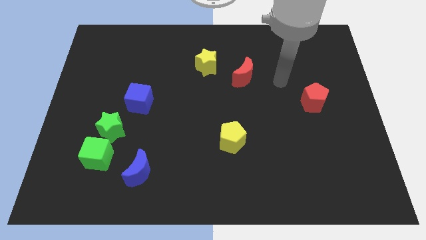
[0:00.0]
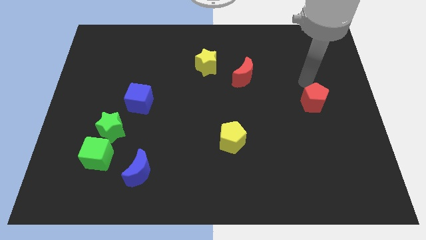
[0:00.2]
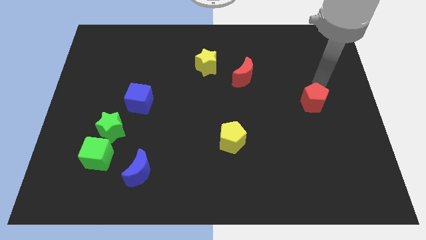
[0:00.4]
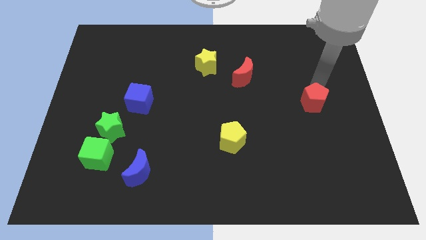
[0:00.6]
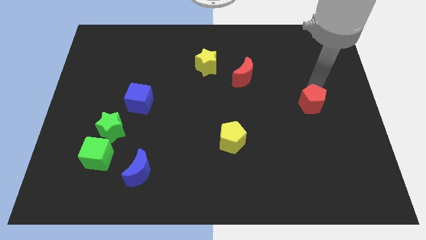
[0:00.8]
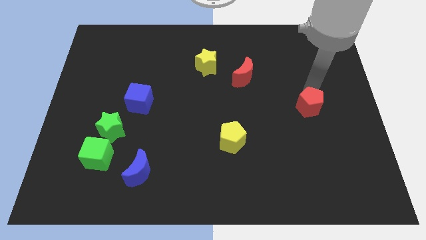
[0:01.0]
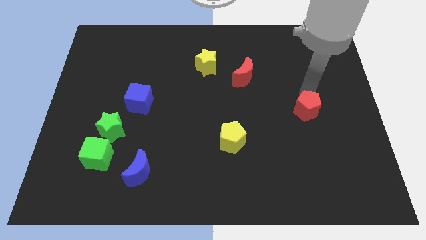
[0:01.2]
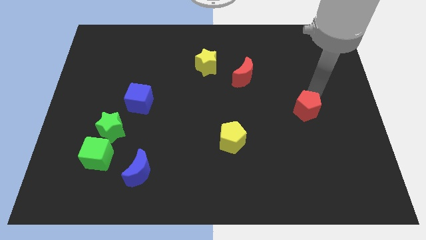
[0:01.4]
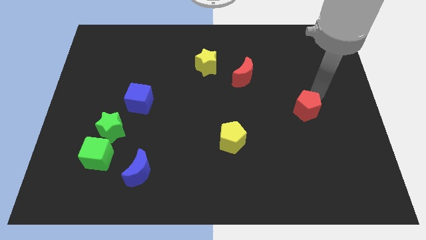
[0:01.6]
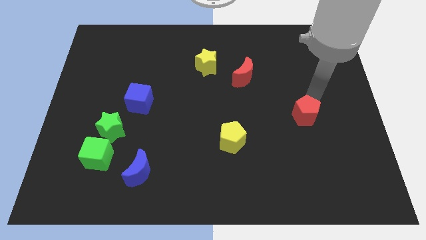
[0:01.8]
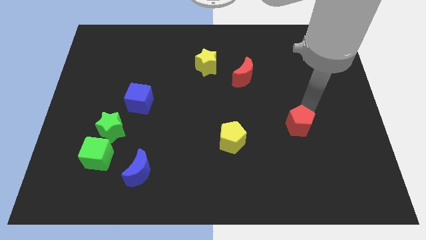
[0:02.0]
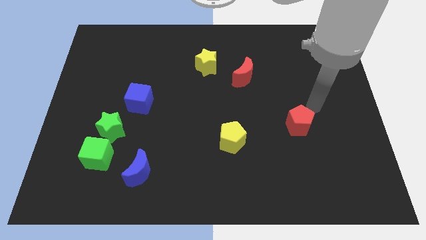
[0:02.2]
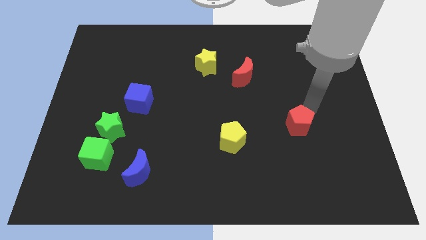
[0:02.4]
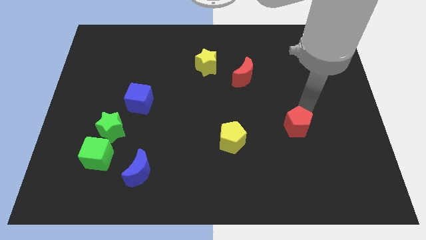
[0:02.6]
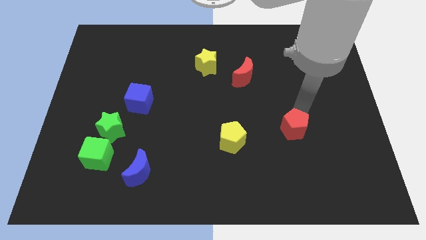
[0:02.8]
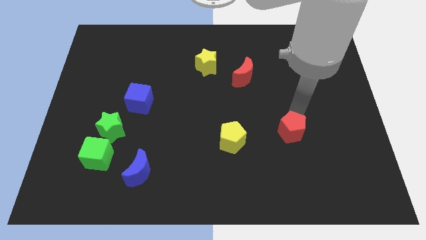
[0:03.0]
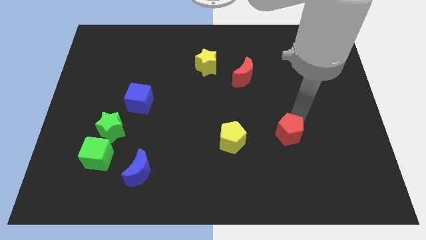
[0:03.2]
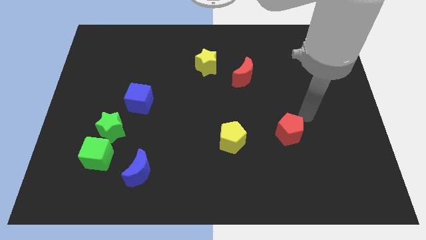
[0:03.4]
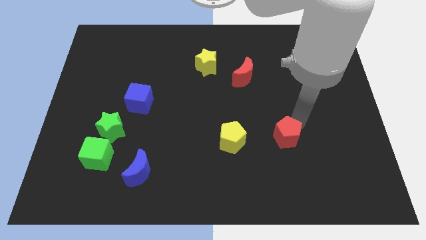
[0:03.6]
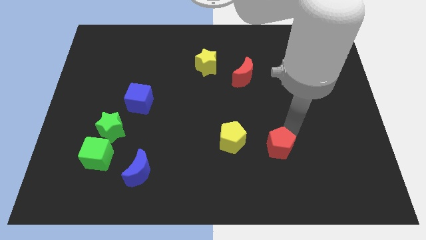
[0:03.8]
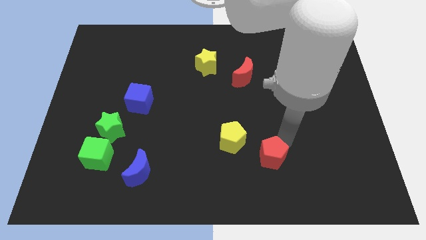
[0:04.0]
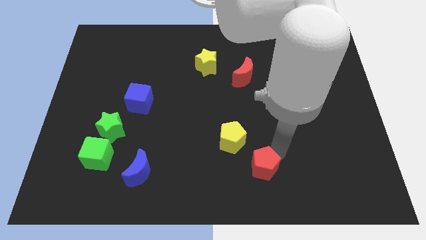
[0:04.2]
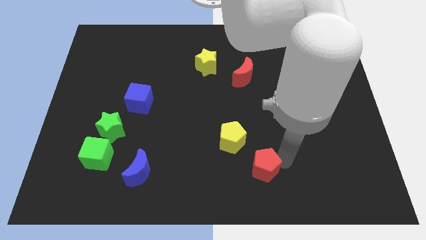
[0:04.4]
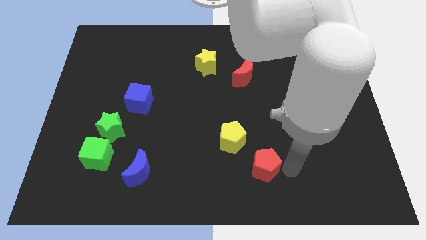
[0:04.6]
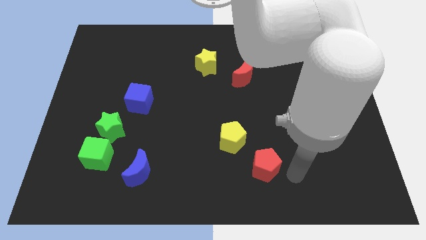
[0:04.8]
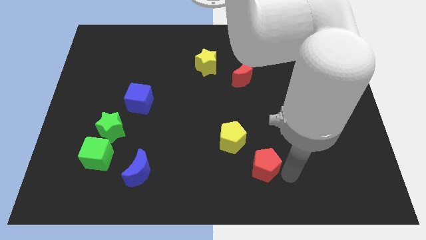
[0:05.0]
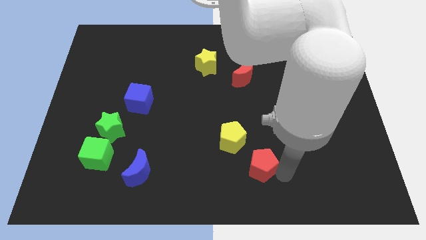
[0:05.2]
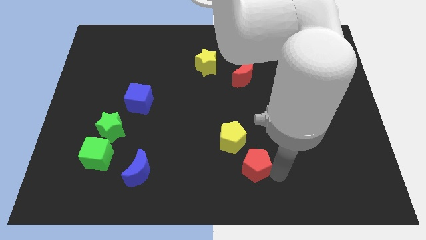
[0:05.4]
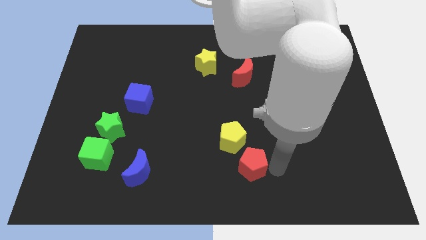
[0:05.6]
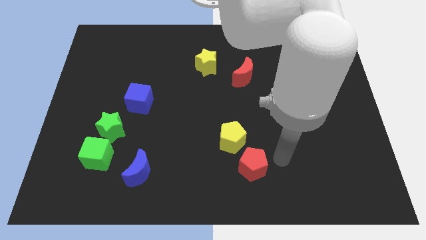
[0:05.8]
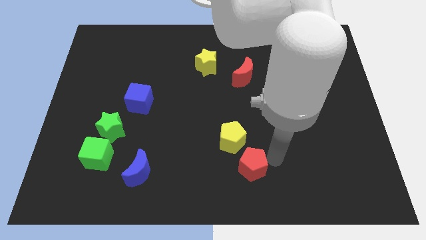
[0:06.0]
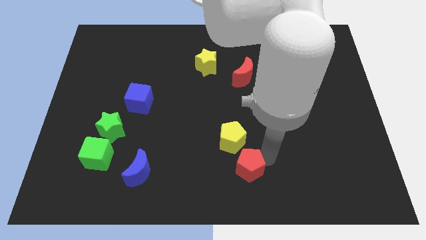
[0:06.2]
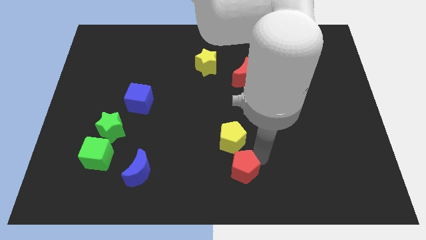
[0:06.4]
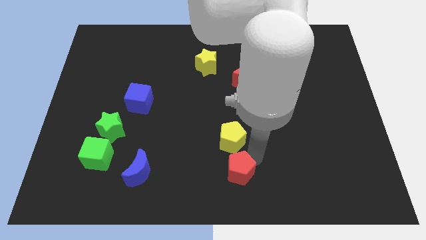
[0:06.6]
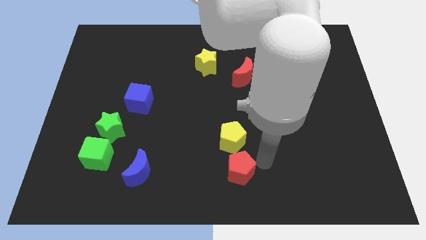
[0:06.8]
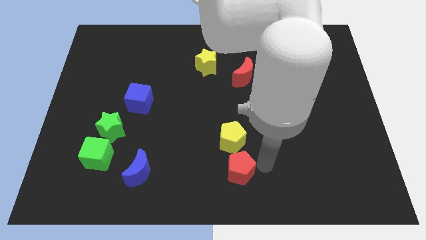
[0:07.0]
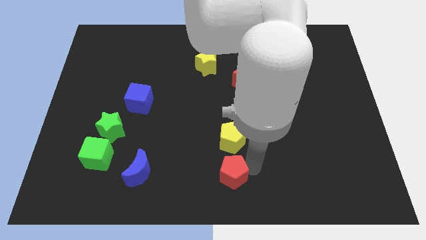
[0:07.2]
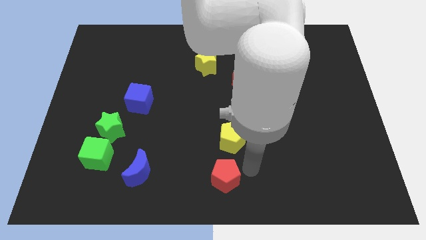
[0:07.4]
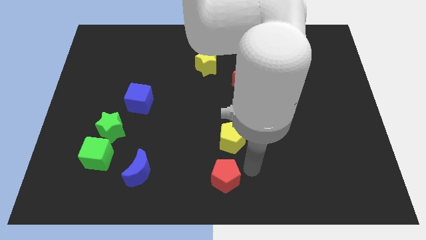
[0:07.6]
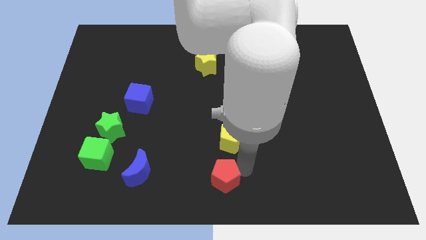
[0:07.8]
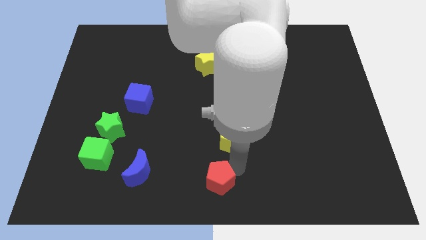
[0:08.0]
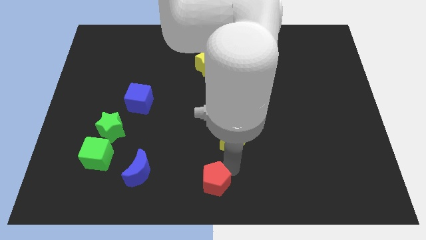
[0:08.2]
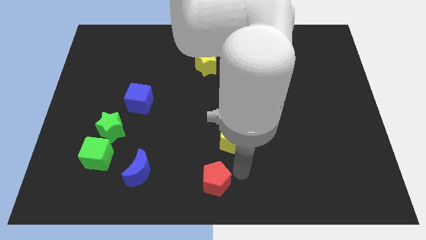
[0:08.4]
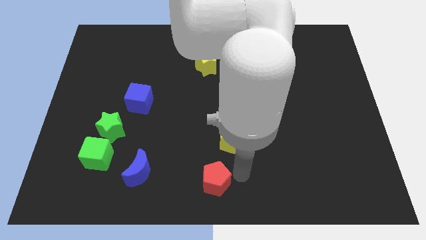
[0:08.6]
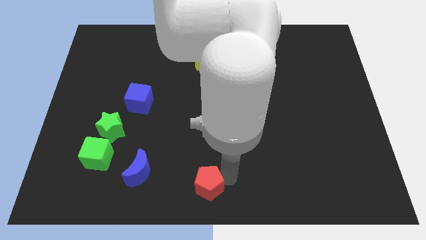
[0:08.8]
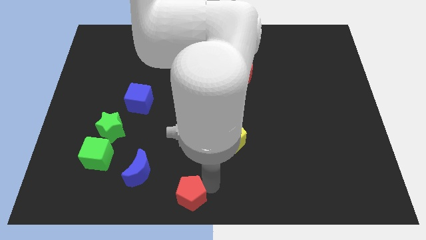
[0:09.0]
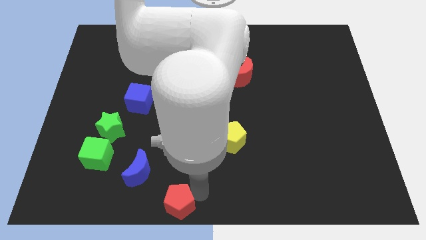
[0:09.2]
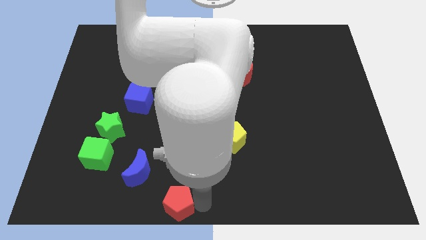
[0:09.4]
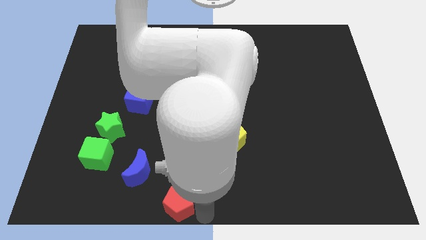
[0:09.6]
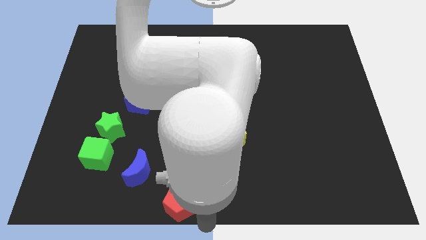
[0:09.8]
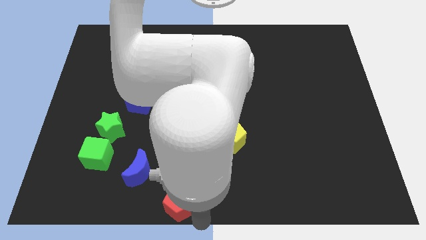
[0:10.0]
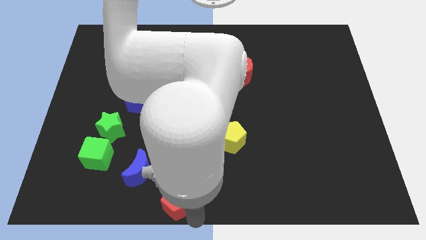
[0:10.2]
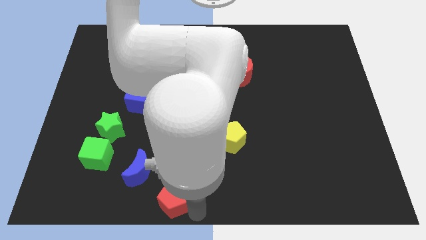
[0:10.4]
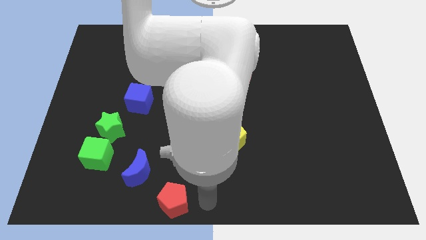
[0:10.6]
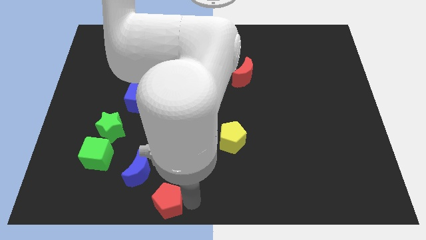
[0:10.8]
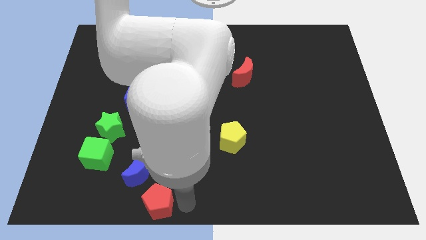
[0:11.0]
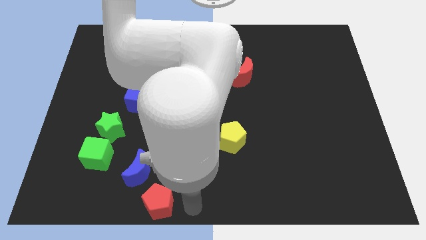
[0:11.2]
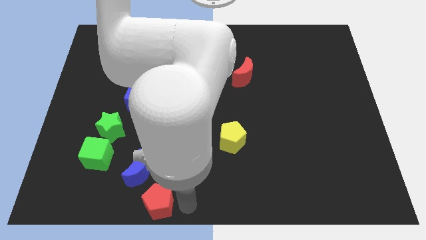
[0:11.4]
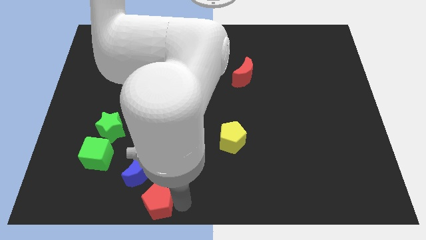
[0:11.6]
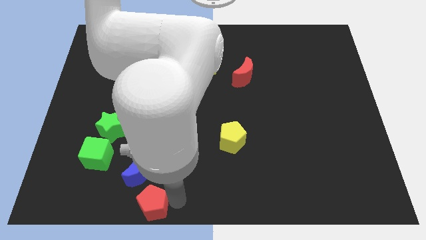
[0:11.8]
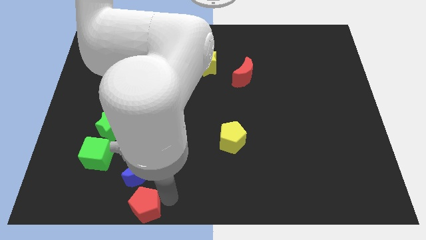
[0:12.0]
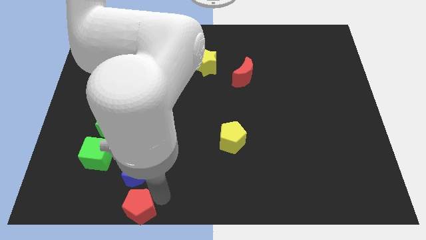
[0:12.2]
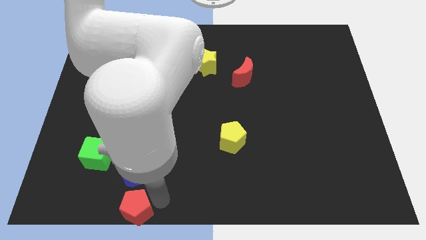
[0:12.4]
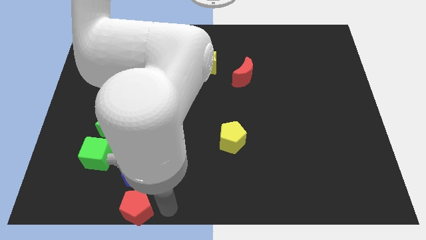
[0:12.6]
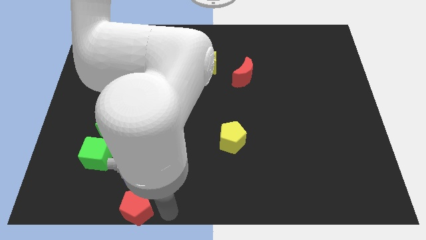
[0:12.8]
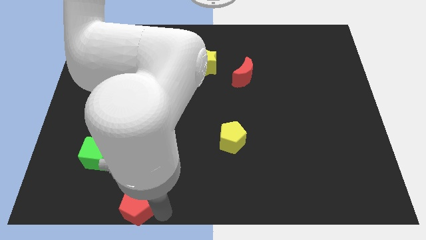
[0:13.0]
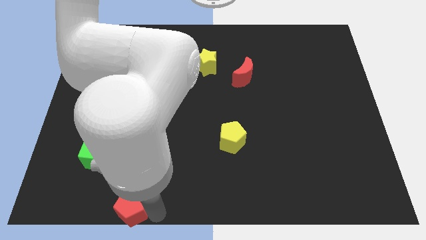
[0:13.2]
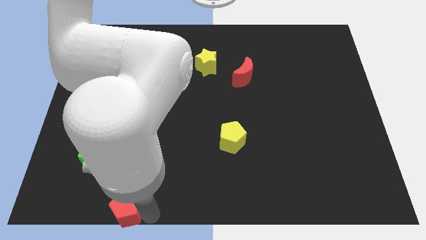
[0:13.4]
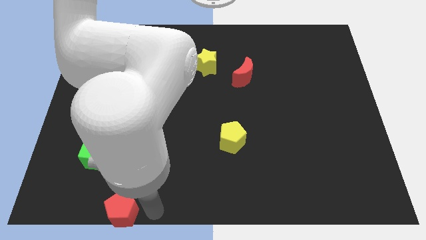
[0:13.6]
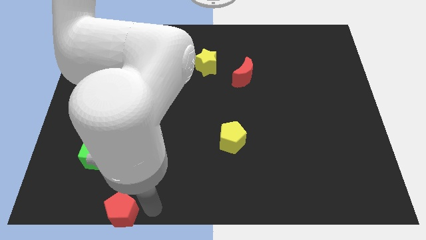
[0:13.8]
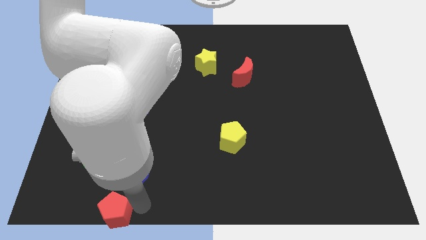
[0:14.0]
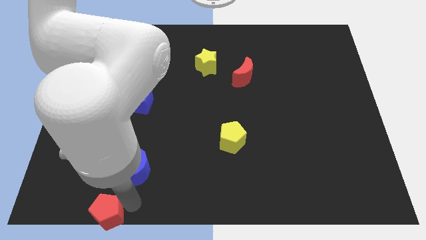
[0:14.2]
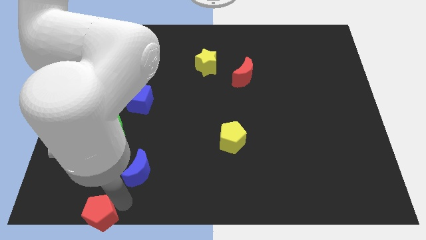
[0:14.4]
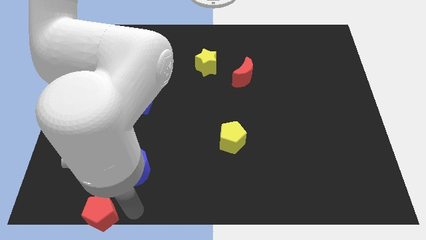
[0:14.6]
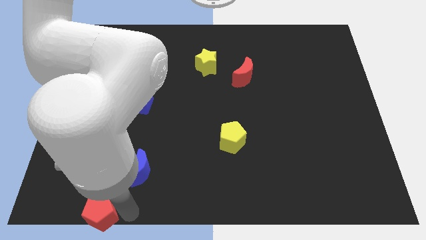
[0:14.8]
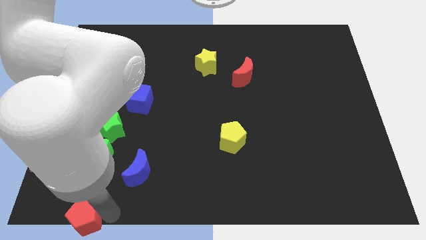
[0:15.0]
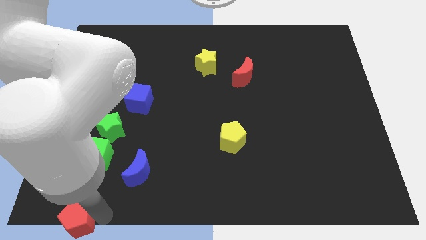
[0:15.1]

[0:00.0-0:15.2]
move the red pentagon to the bottom left corner
